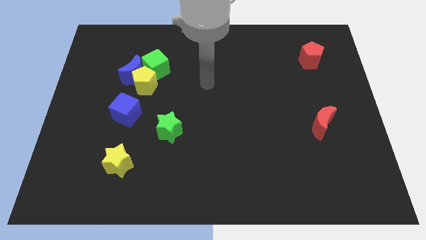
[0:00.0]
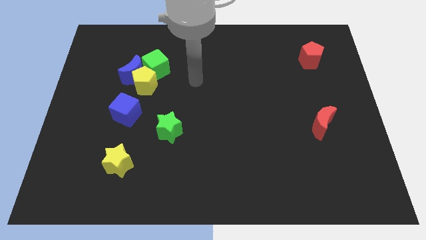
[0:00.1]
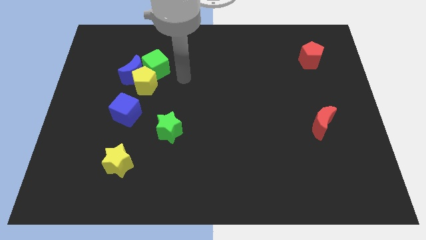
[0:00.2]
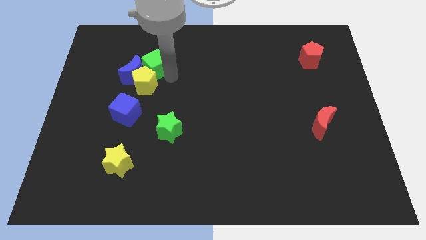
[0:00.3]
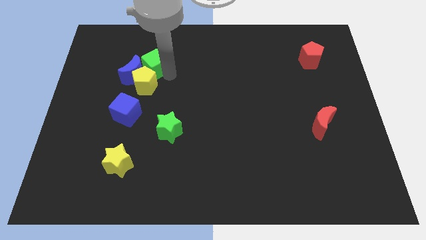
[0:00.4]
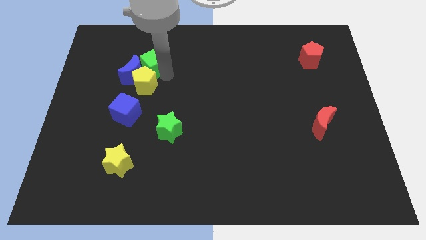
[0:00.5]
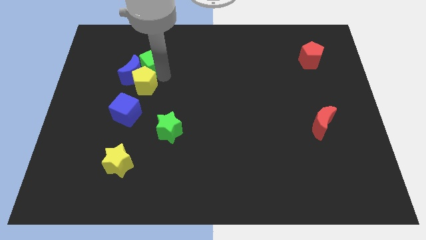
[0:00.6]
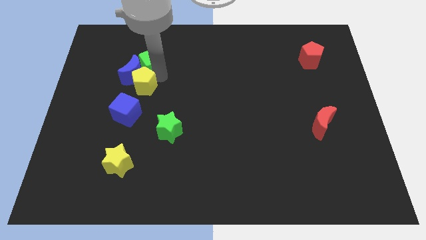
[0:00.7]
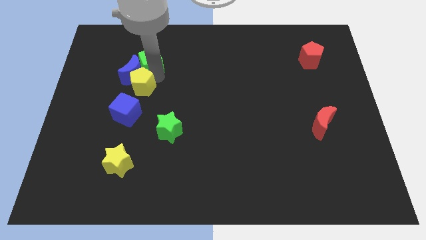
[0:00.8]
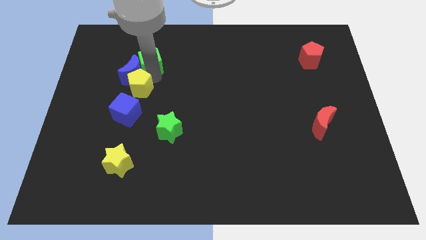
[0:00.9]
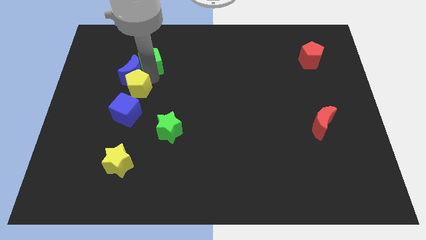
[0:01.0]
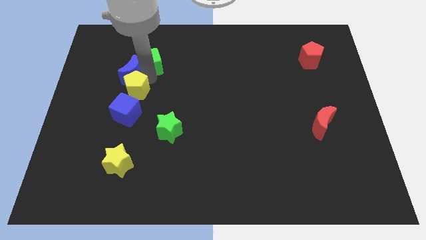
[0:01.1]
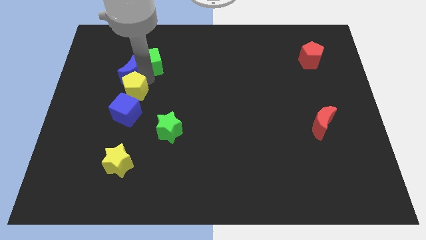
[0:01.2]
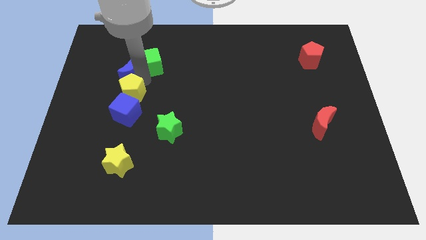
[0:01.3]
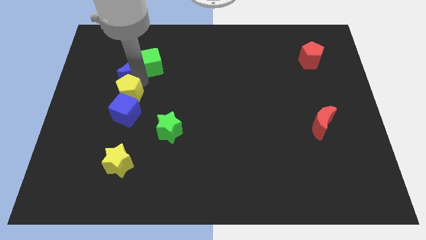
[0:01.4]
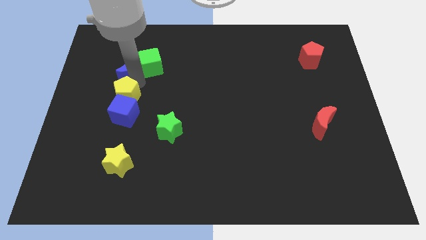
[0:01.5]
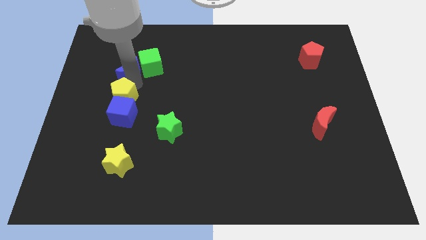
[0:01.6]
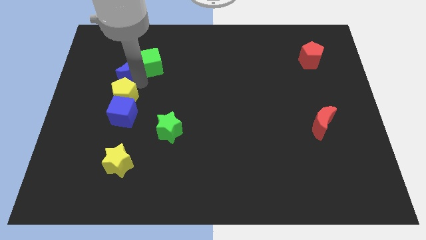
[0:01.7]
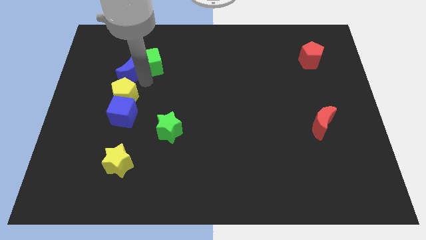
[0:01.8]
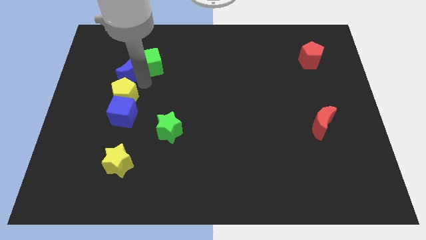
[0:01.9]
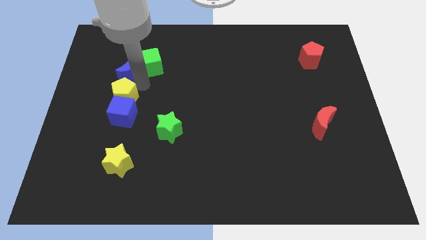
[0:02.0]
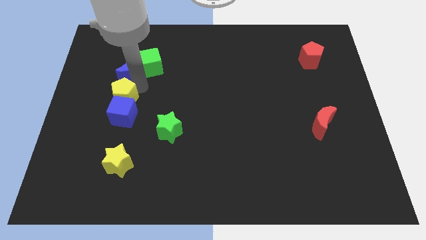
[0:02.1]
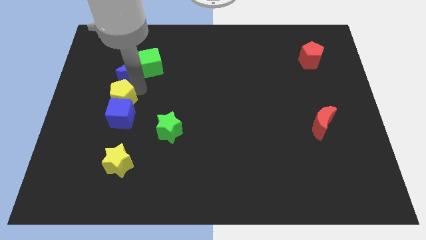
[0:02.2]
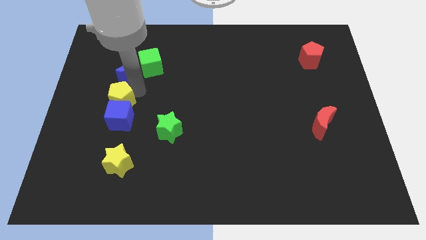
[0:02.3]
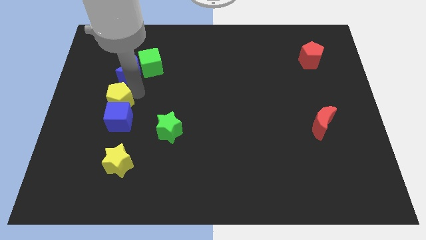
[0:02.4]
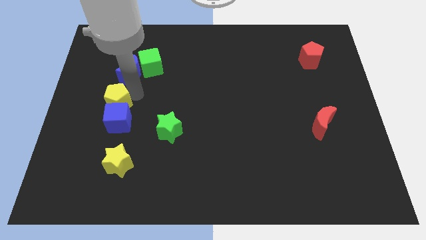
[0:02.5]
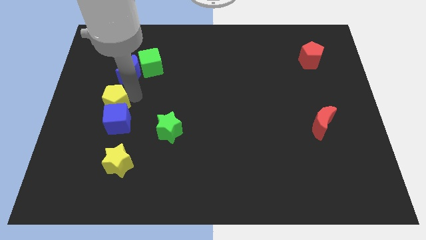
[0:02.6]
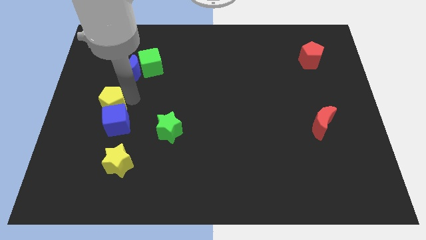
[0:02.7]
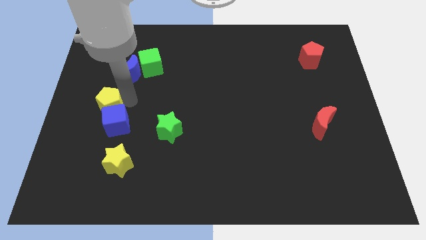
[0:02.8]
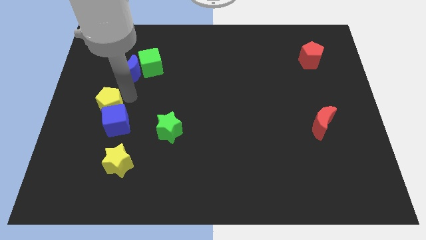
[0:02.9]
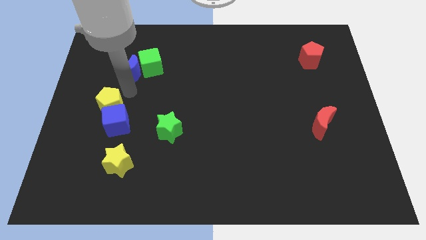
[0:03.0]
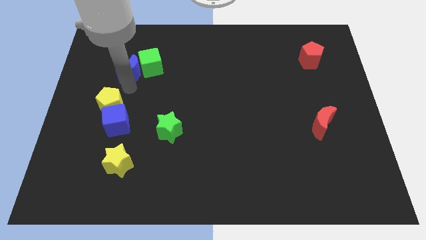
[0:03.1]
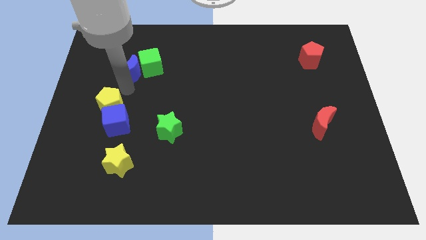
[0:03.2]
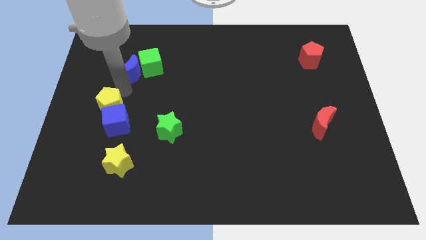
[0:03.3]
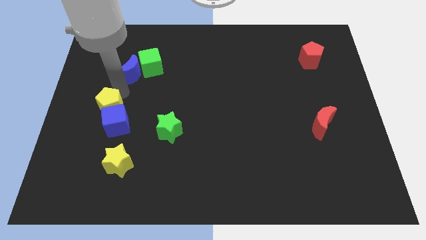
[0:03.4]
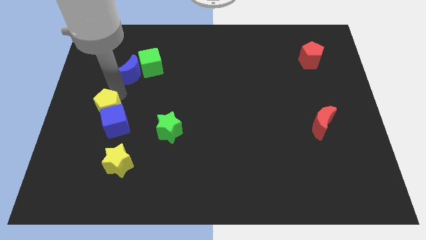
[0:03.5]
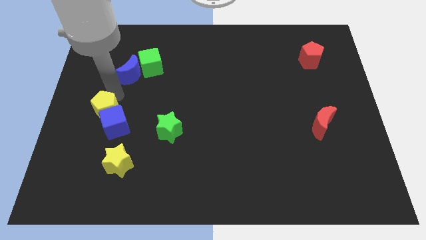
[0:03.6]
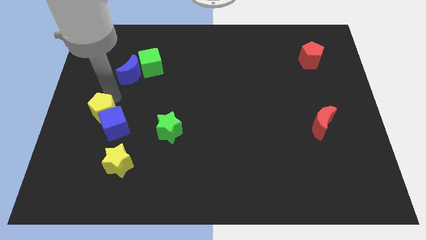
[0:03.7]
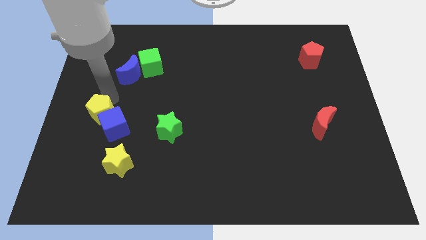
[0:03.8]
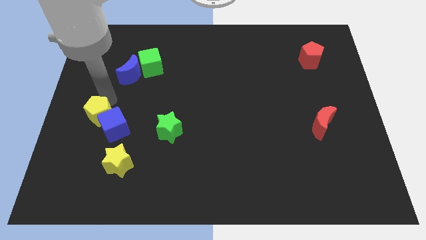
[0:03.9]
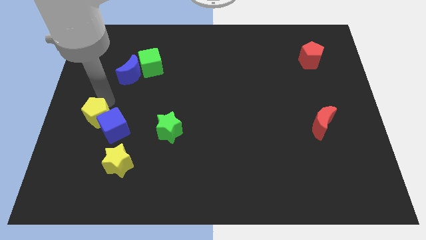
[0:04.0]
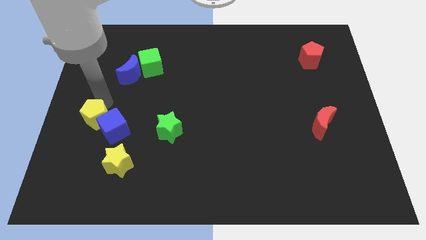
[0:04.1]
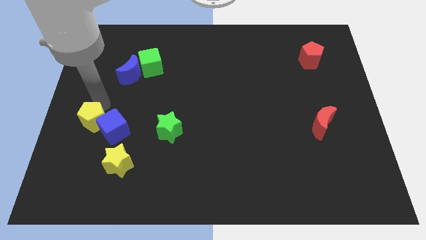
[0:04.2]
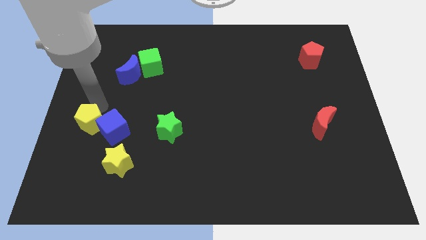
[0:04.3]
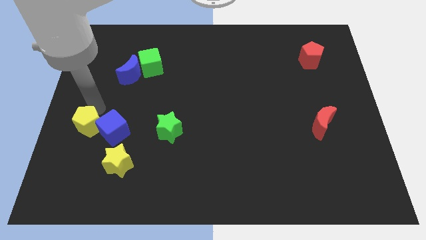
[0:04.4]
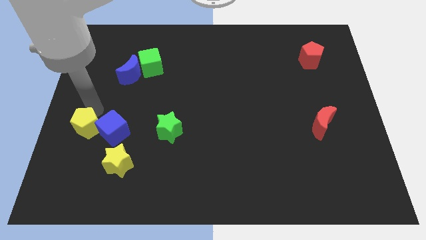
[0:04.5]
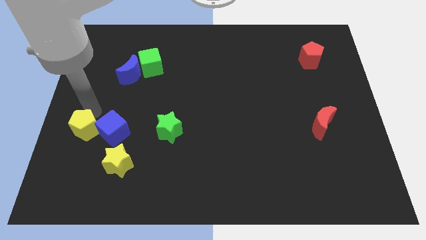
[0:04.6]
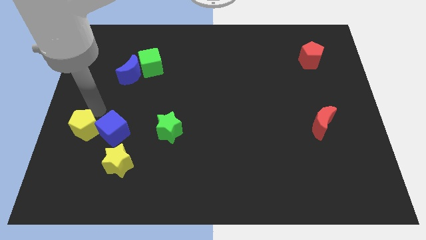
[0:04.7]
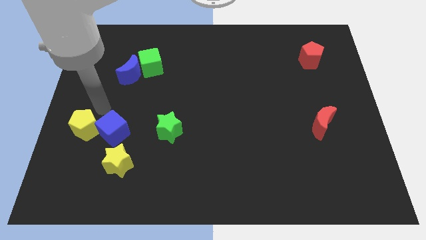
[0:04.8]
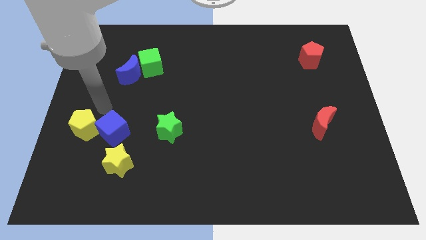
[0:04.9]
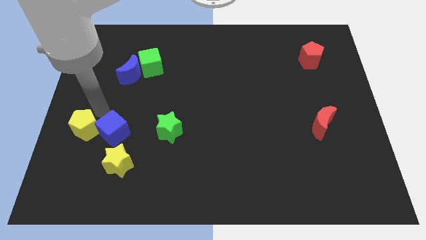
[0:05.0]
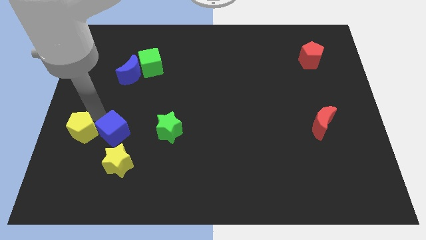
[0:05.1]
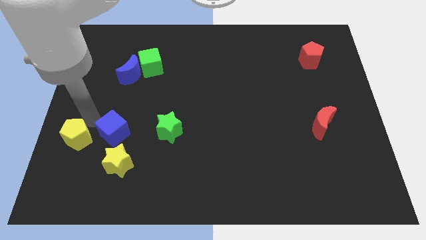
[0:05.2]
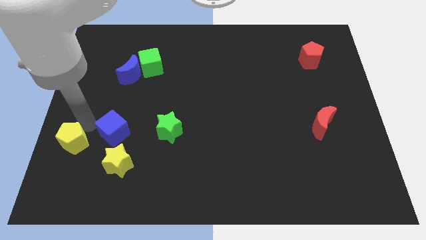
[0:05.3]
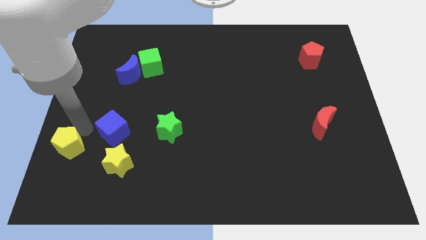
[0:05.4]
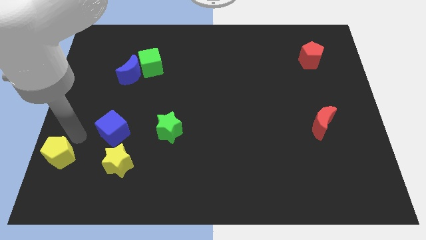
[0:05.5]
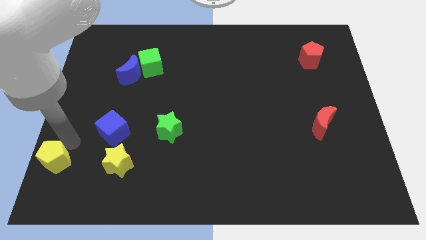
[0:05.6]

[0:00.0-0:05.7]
push the yellow pentagon to the bottom left of the board
